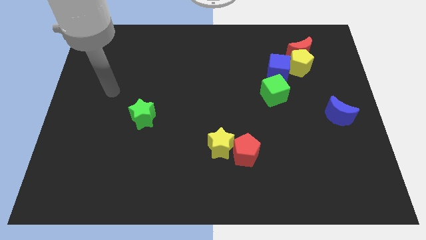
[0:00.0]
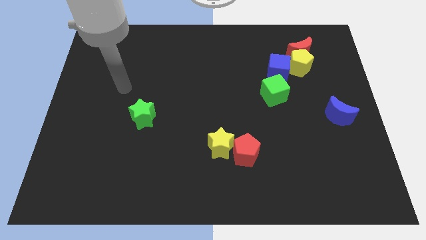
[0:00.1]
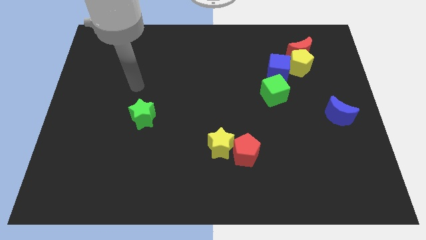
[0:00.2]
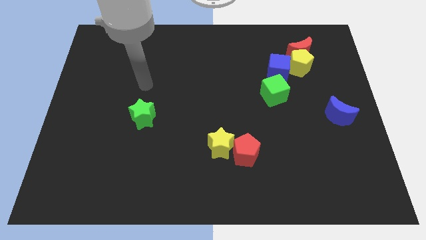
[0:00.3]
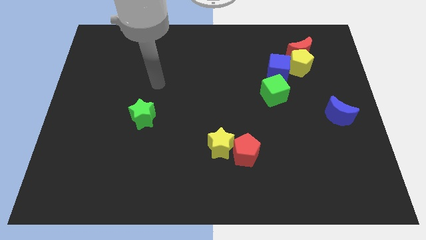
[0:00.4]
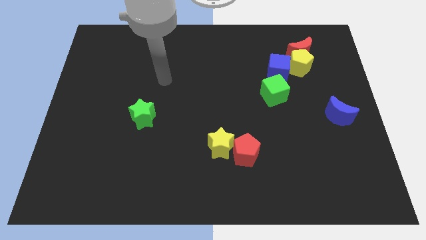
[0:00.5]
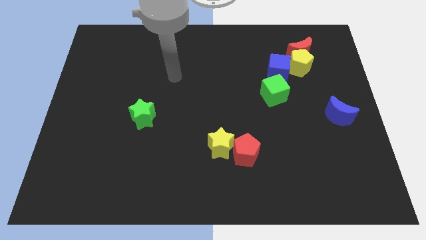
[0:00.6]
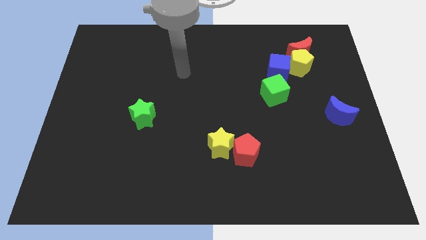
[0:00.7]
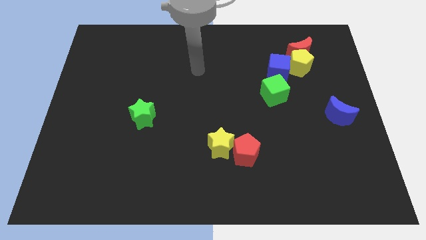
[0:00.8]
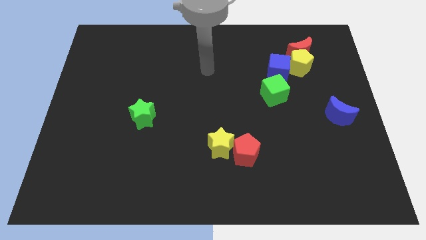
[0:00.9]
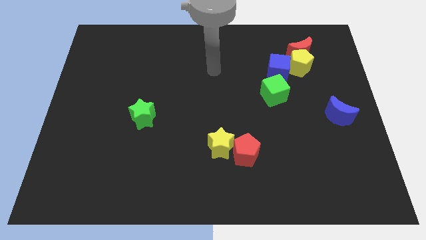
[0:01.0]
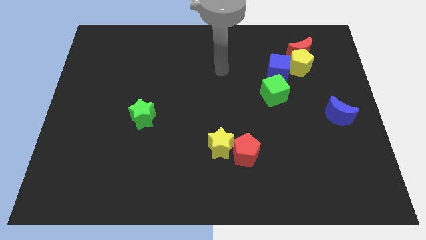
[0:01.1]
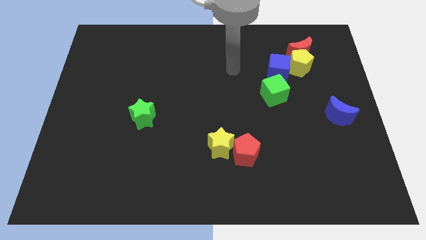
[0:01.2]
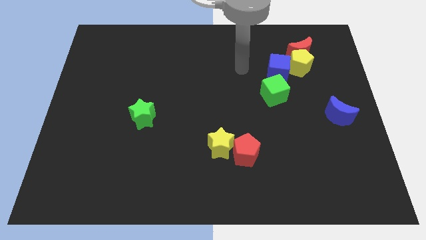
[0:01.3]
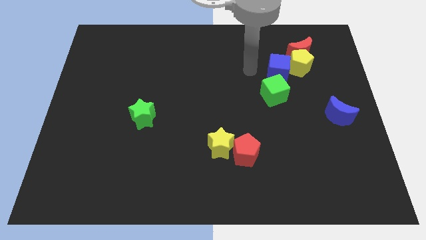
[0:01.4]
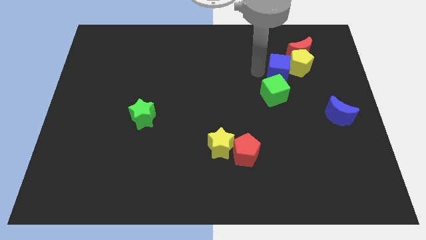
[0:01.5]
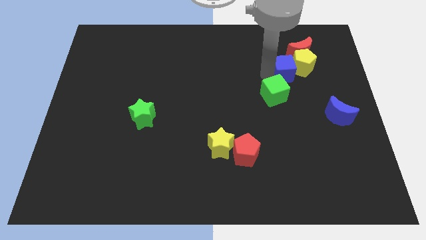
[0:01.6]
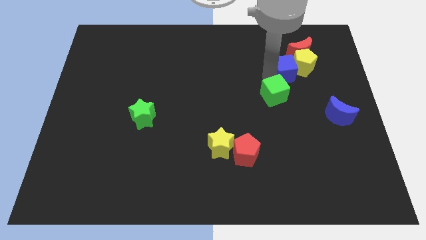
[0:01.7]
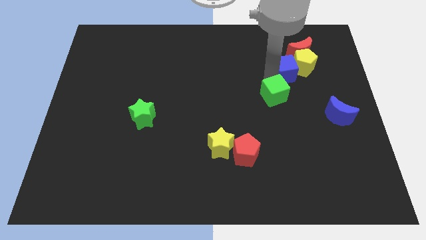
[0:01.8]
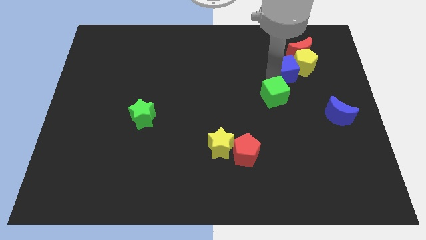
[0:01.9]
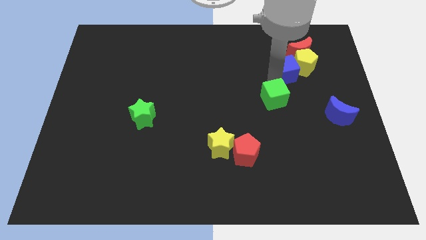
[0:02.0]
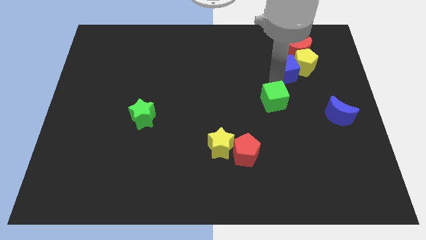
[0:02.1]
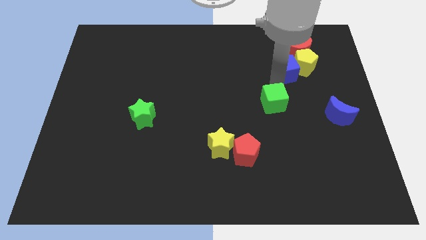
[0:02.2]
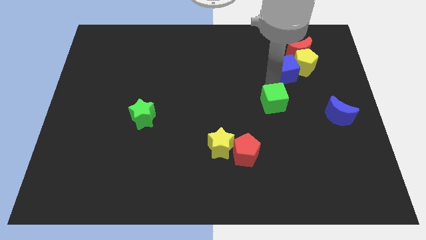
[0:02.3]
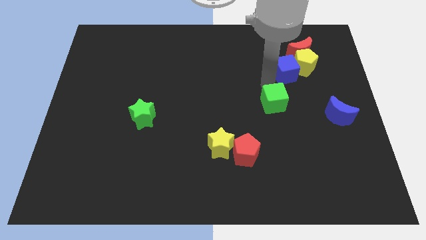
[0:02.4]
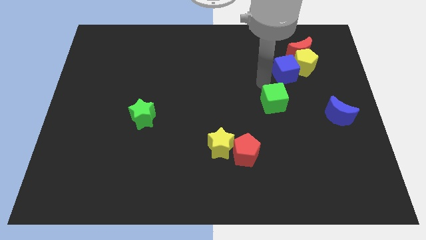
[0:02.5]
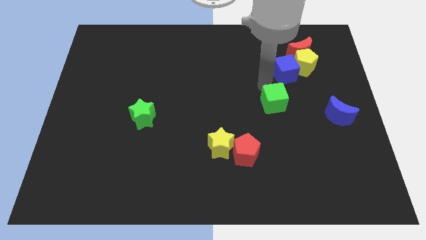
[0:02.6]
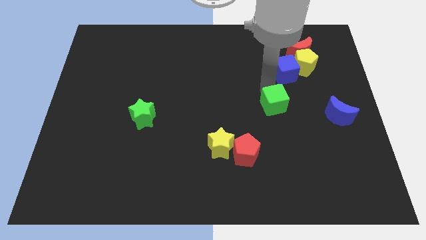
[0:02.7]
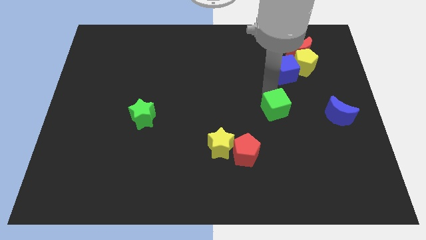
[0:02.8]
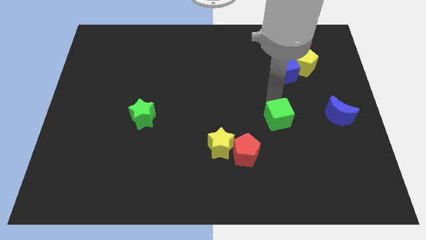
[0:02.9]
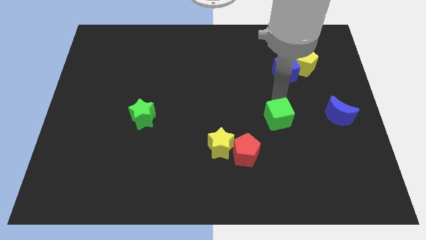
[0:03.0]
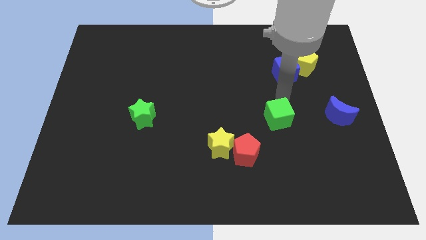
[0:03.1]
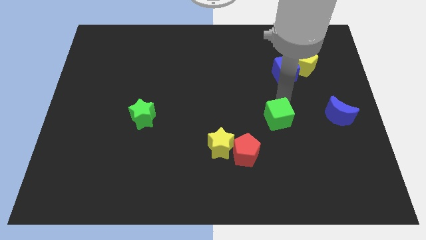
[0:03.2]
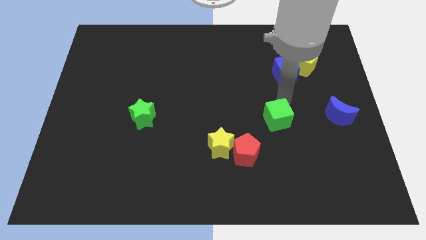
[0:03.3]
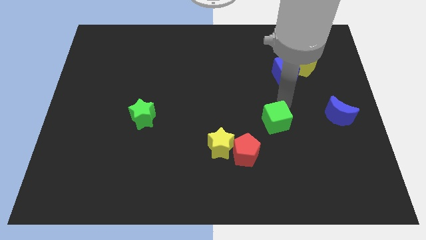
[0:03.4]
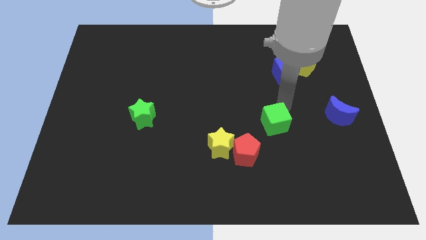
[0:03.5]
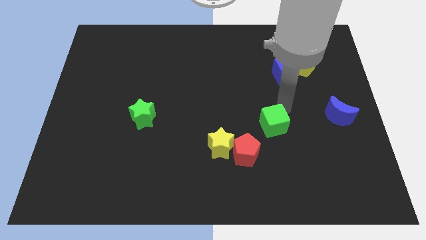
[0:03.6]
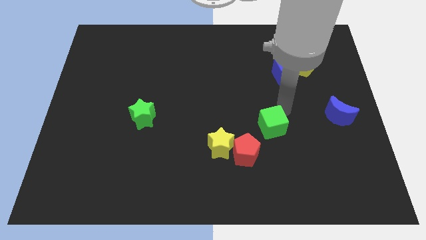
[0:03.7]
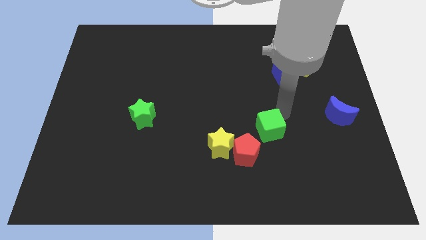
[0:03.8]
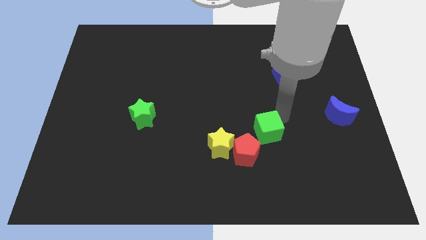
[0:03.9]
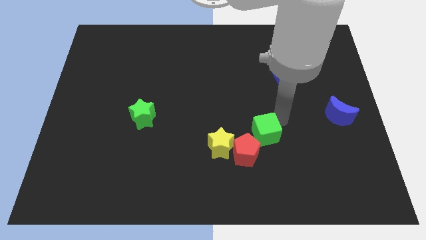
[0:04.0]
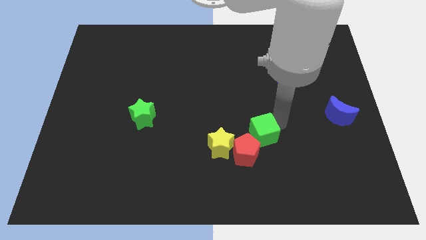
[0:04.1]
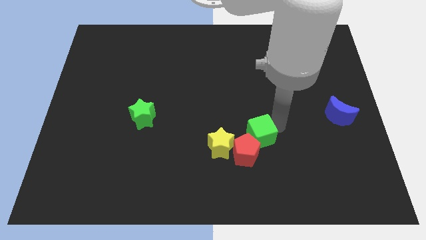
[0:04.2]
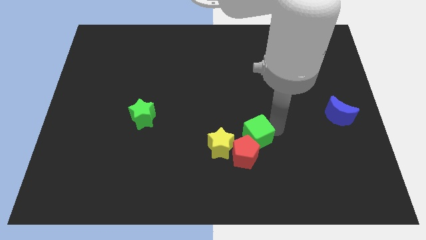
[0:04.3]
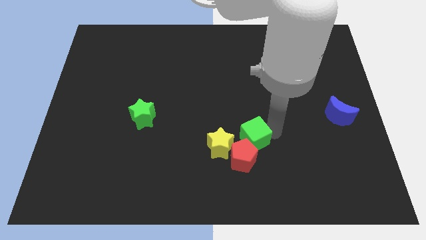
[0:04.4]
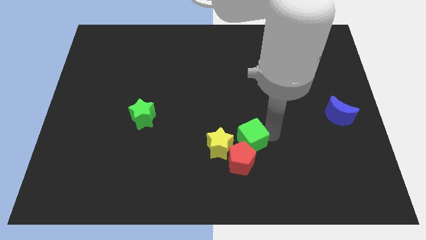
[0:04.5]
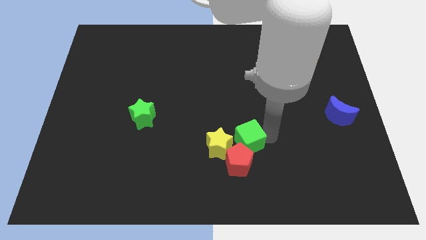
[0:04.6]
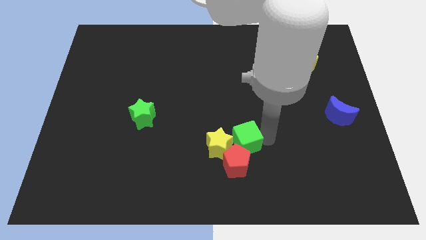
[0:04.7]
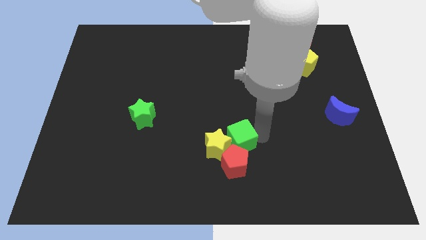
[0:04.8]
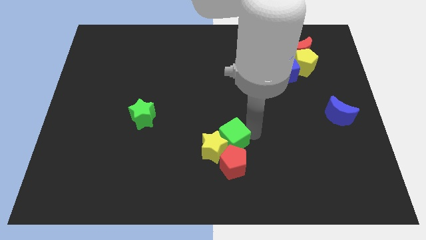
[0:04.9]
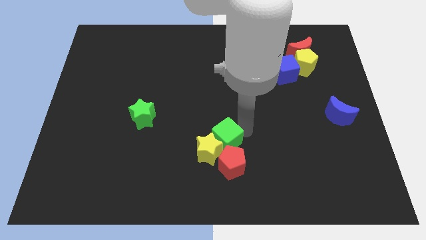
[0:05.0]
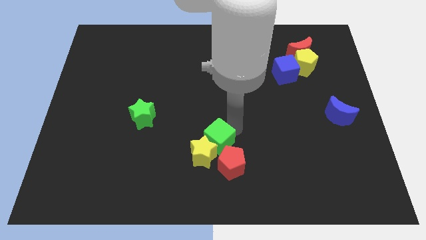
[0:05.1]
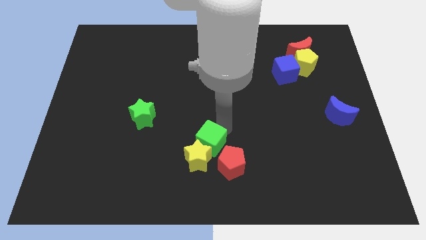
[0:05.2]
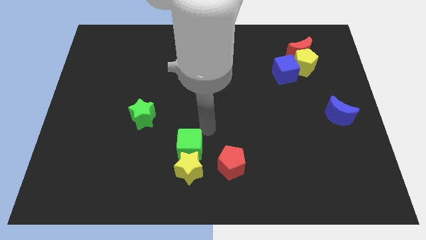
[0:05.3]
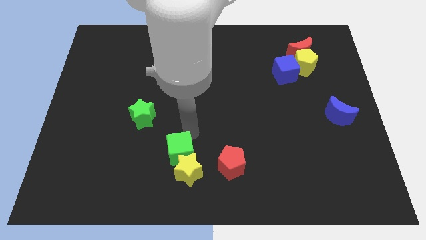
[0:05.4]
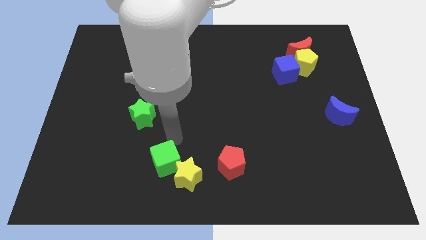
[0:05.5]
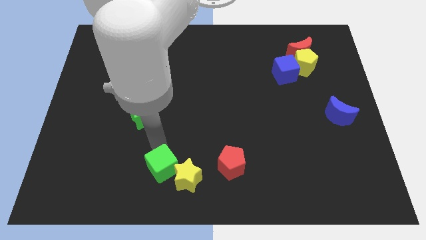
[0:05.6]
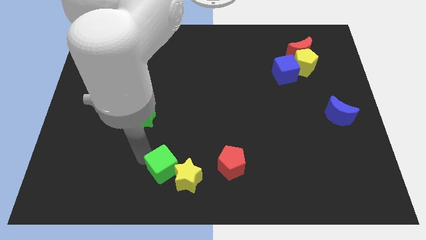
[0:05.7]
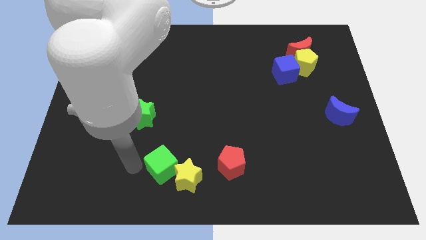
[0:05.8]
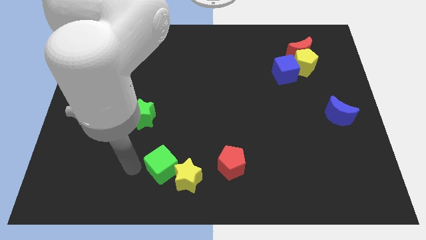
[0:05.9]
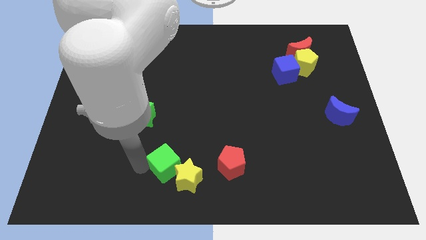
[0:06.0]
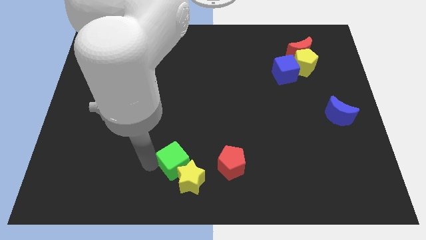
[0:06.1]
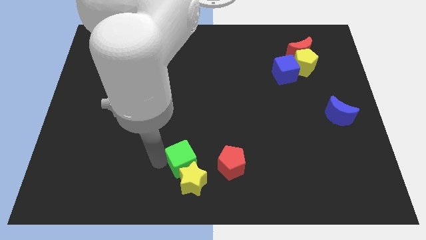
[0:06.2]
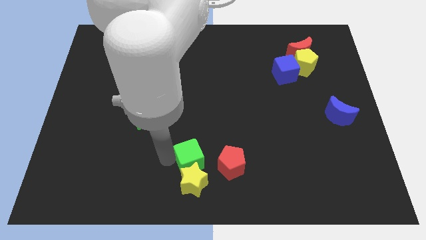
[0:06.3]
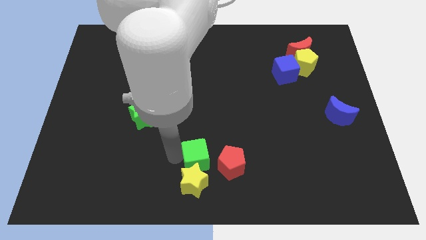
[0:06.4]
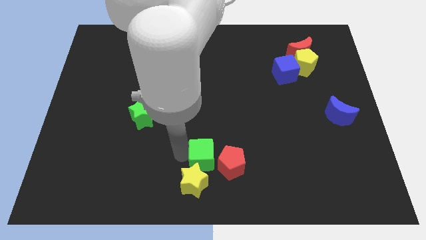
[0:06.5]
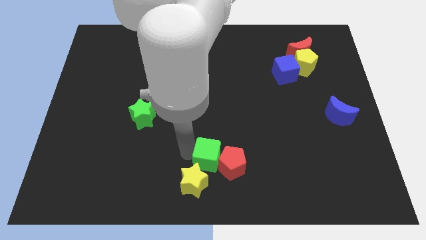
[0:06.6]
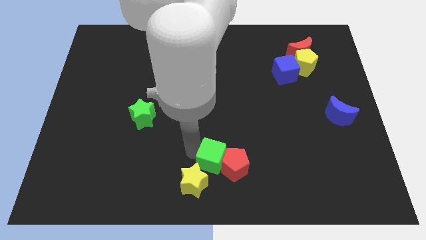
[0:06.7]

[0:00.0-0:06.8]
move the green cube to the bottom left of the red pentagon
